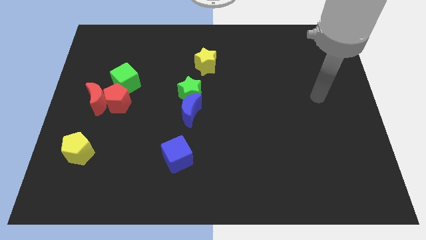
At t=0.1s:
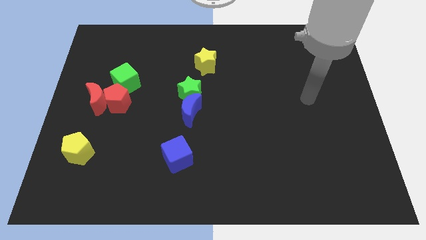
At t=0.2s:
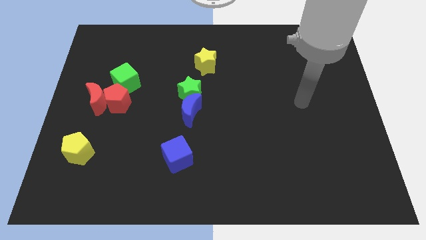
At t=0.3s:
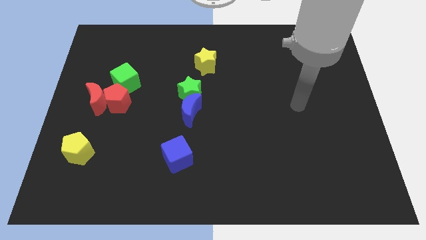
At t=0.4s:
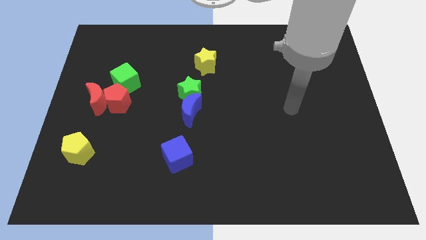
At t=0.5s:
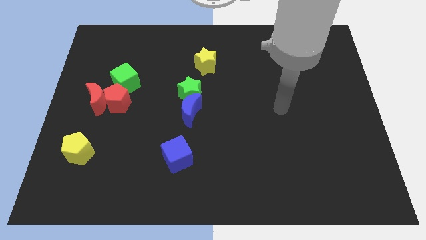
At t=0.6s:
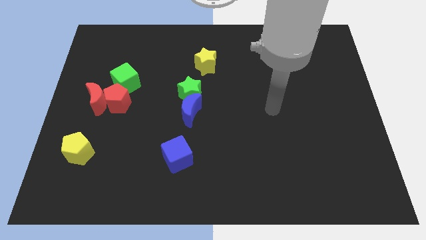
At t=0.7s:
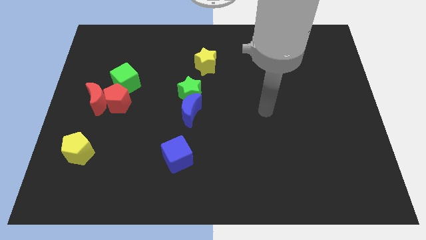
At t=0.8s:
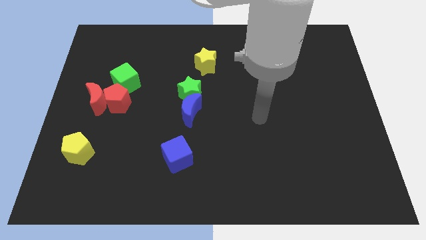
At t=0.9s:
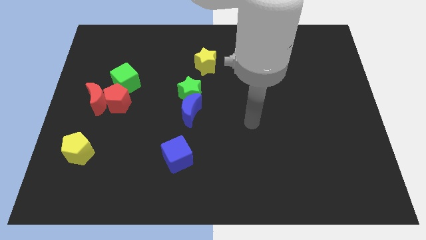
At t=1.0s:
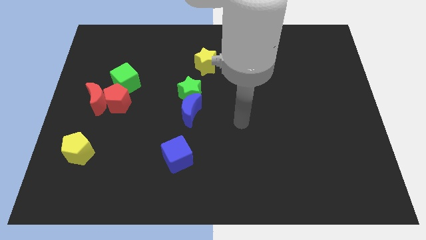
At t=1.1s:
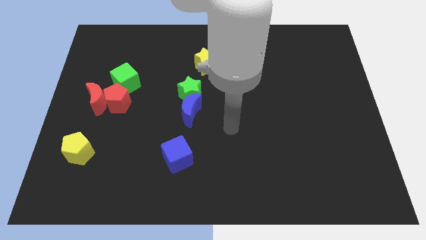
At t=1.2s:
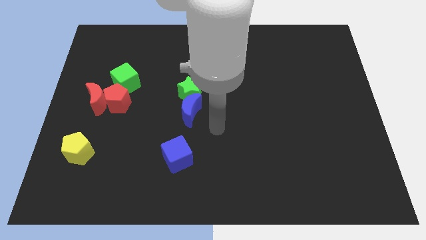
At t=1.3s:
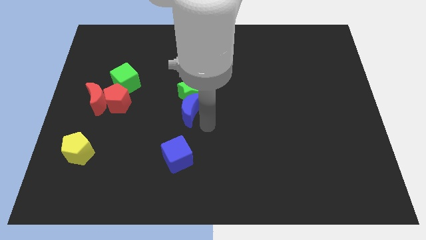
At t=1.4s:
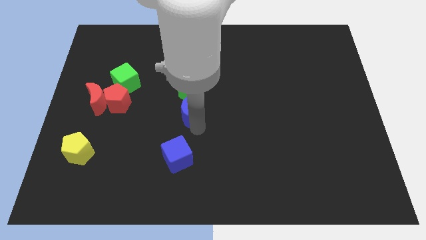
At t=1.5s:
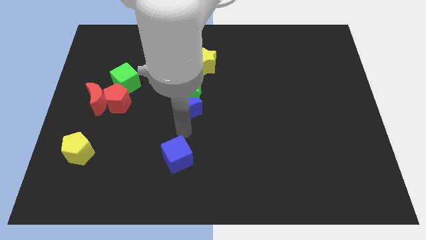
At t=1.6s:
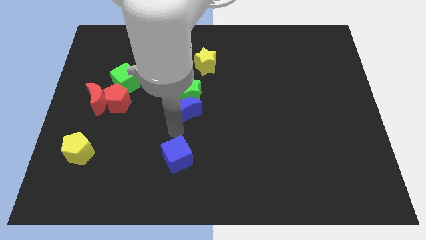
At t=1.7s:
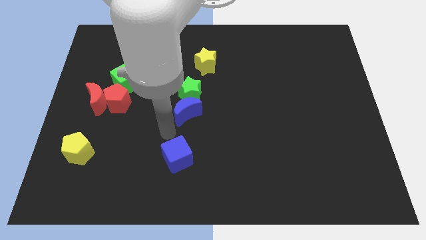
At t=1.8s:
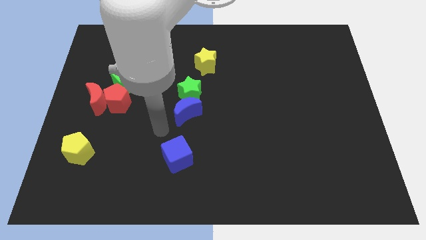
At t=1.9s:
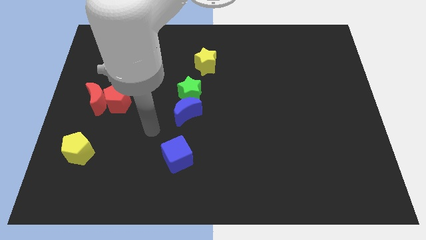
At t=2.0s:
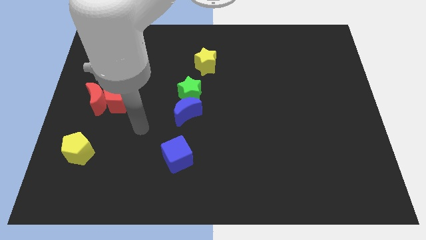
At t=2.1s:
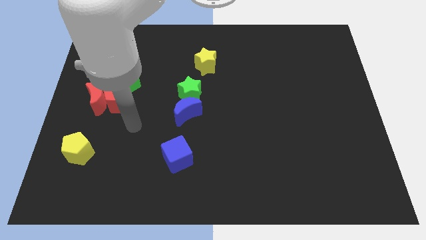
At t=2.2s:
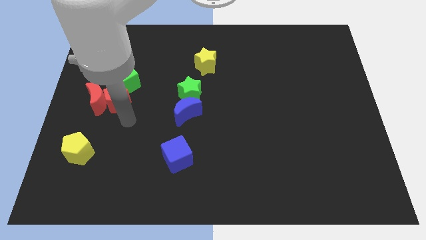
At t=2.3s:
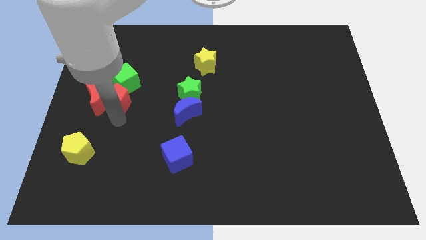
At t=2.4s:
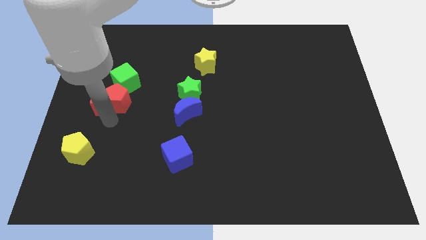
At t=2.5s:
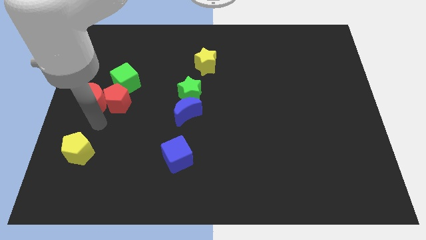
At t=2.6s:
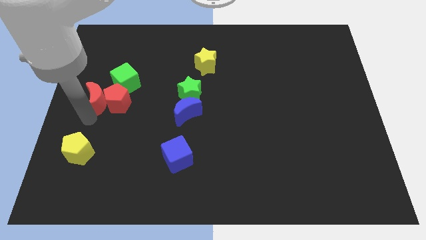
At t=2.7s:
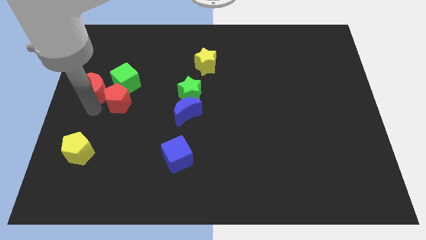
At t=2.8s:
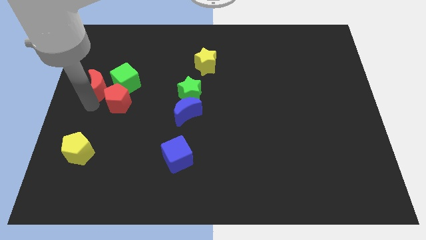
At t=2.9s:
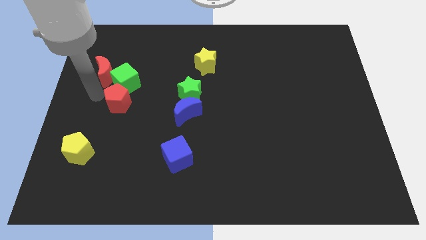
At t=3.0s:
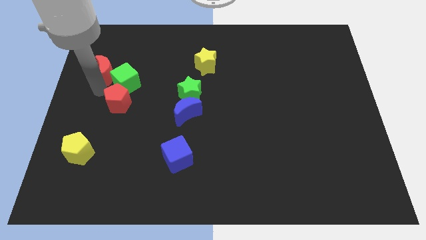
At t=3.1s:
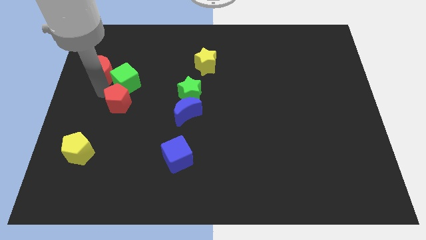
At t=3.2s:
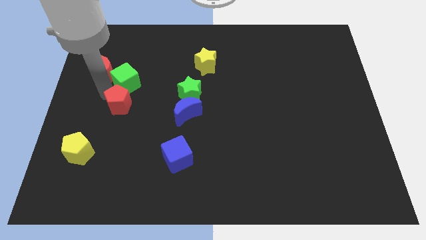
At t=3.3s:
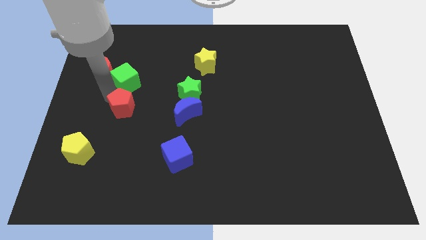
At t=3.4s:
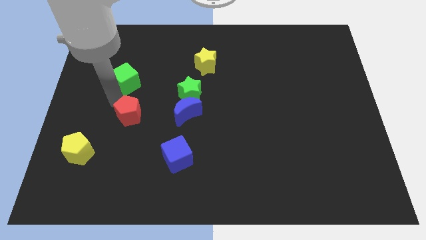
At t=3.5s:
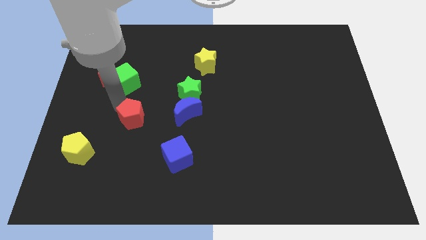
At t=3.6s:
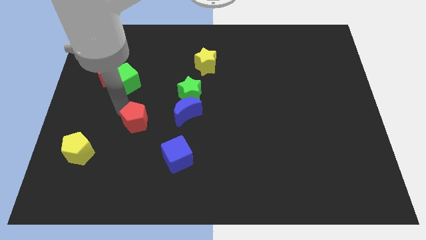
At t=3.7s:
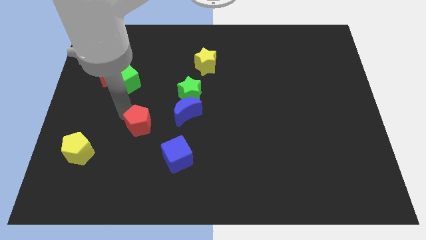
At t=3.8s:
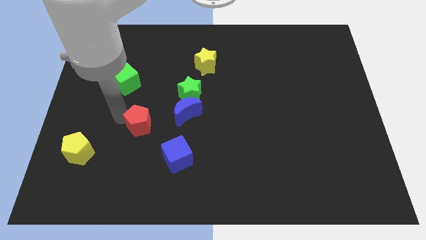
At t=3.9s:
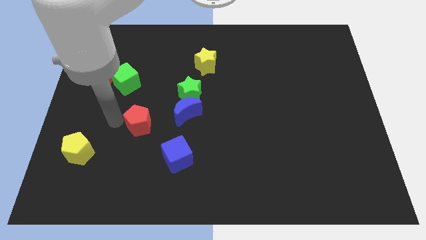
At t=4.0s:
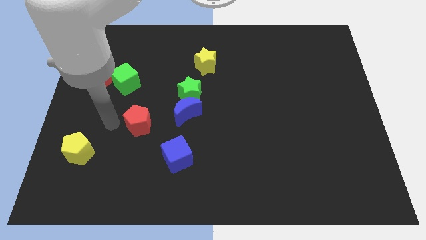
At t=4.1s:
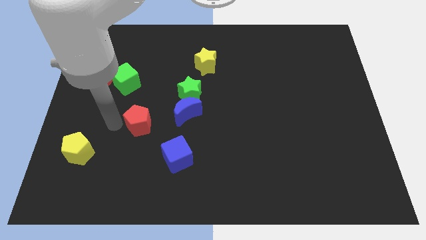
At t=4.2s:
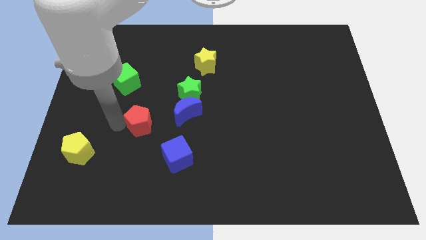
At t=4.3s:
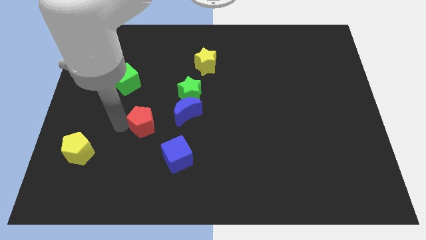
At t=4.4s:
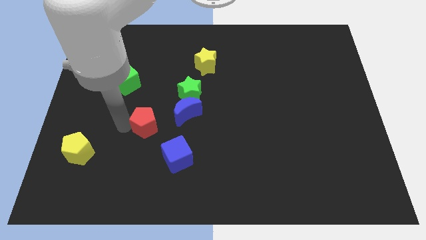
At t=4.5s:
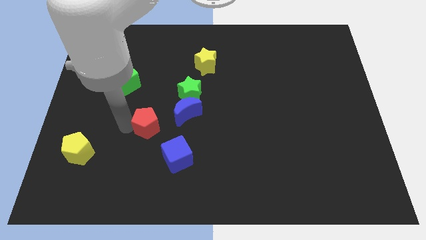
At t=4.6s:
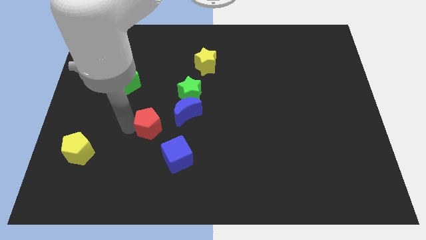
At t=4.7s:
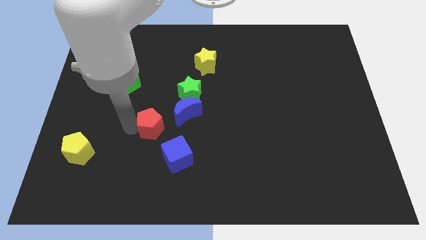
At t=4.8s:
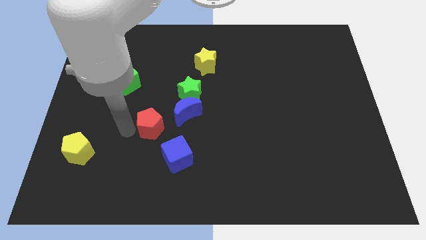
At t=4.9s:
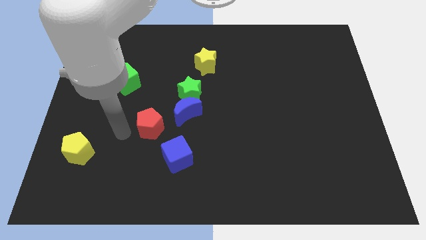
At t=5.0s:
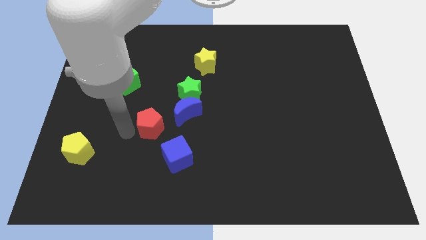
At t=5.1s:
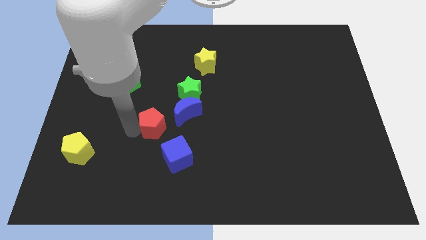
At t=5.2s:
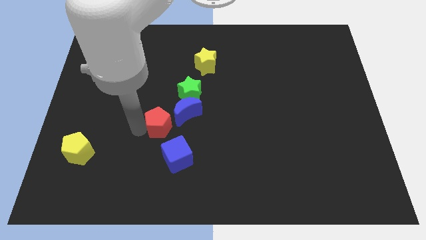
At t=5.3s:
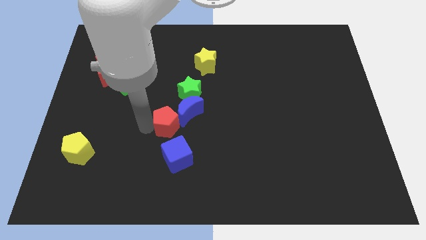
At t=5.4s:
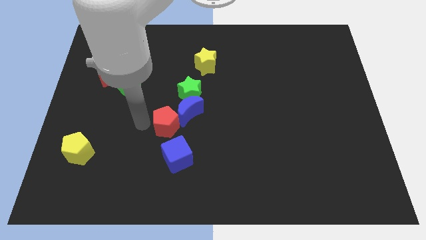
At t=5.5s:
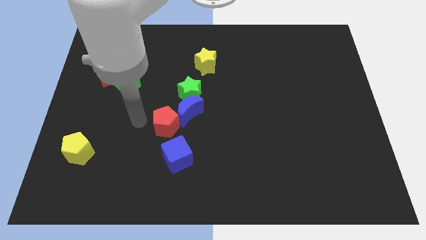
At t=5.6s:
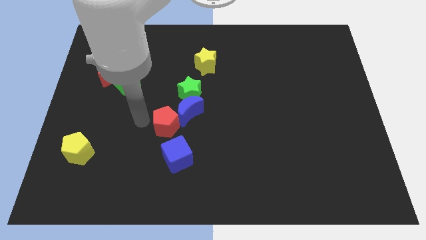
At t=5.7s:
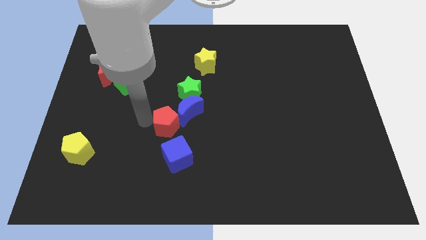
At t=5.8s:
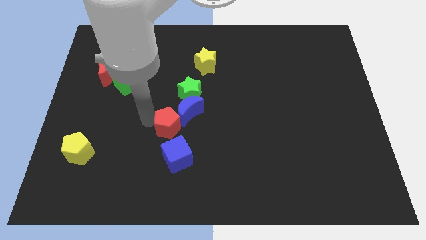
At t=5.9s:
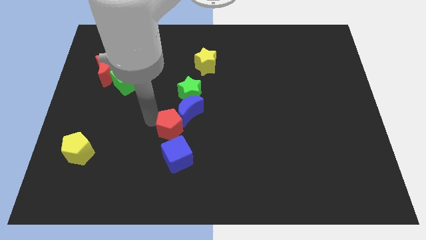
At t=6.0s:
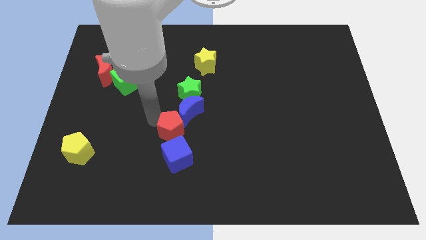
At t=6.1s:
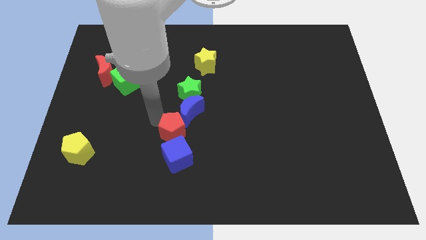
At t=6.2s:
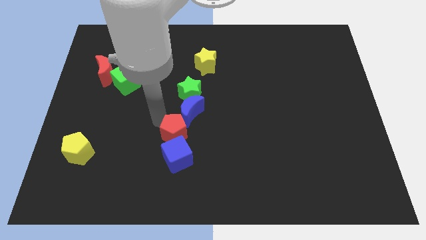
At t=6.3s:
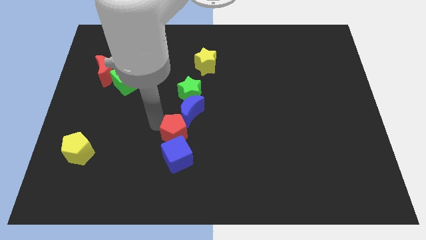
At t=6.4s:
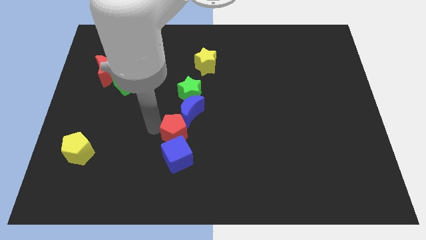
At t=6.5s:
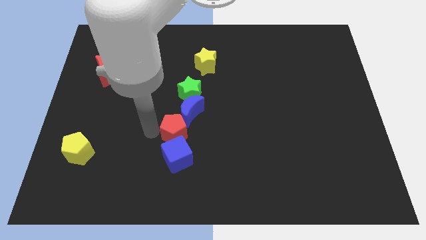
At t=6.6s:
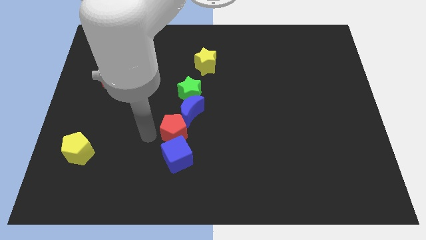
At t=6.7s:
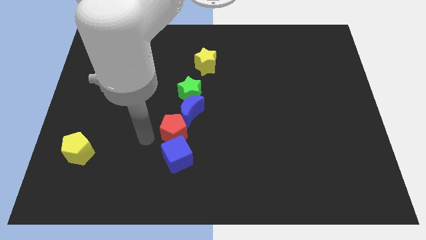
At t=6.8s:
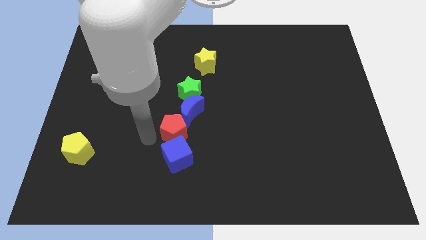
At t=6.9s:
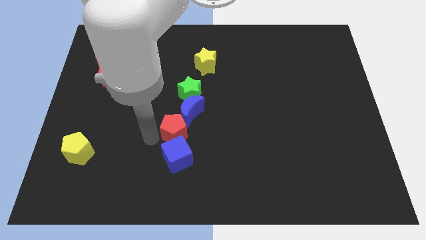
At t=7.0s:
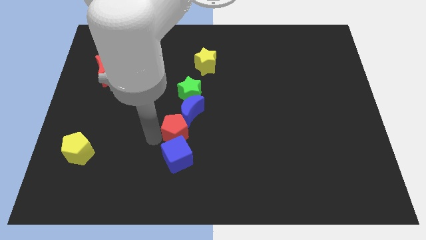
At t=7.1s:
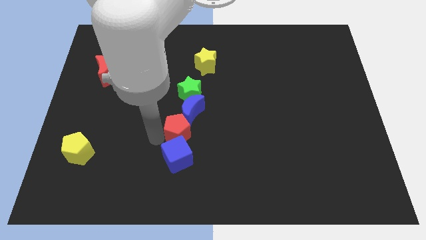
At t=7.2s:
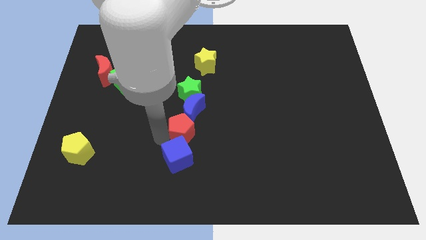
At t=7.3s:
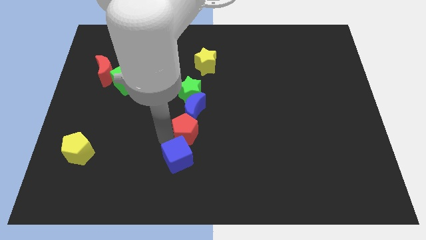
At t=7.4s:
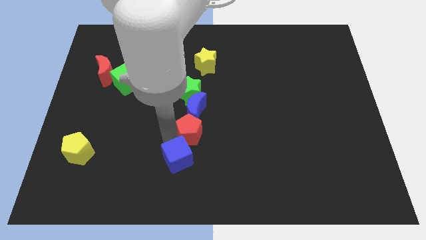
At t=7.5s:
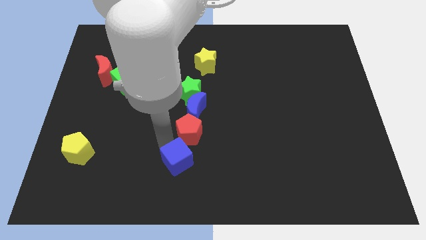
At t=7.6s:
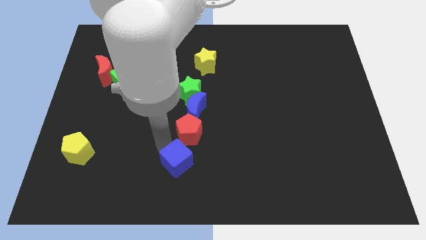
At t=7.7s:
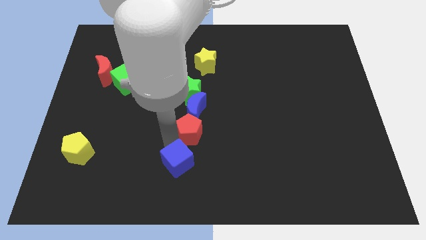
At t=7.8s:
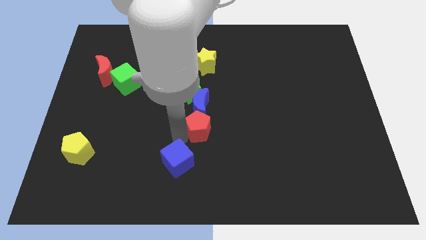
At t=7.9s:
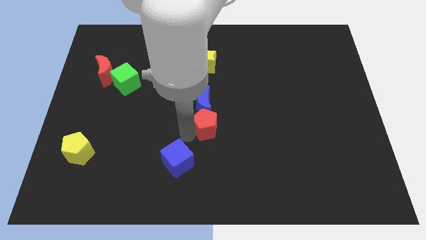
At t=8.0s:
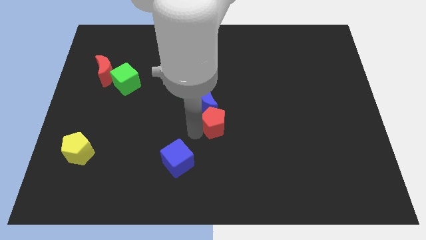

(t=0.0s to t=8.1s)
slide the red pentagon right
